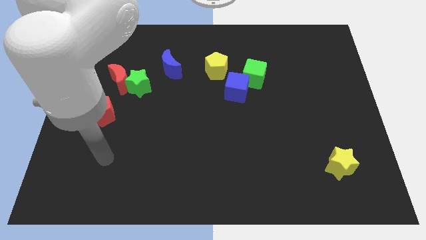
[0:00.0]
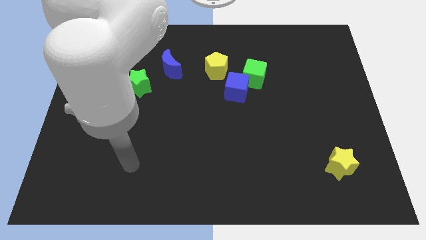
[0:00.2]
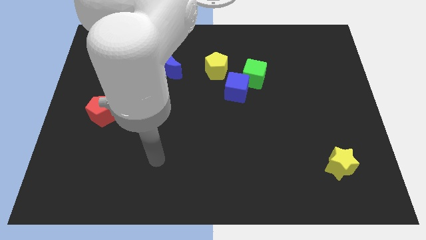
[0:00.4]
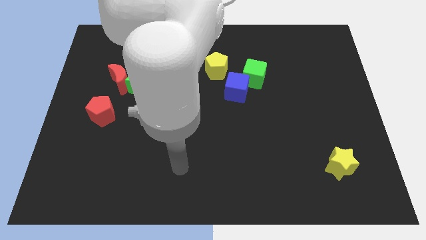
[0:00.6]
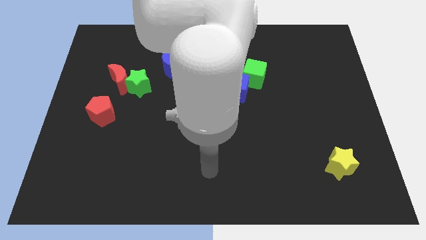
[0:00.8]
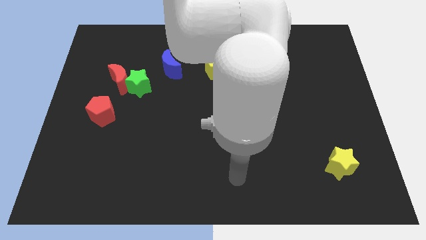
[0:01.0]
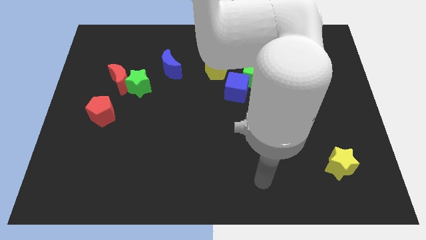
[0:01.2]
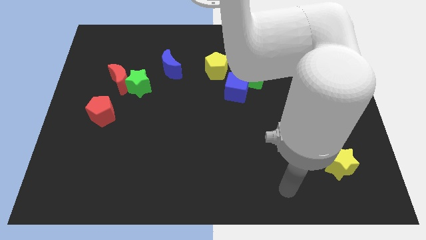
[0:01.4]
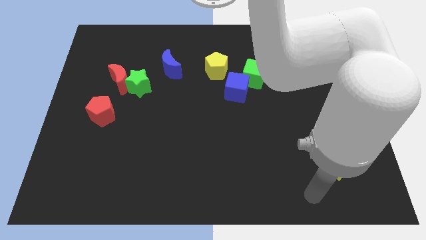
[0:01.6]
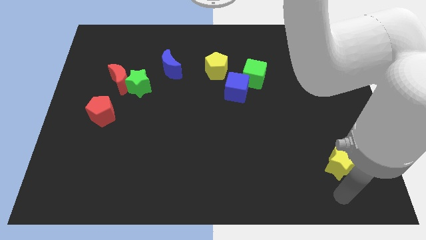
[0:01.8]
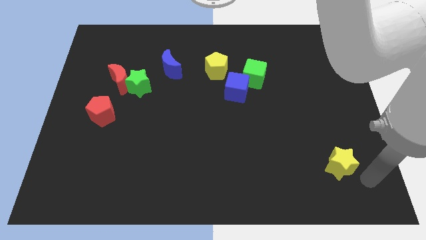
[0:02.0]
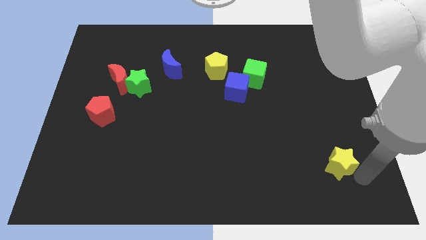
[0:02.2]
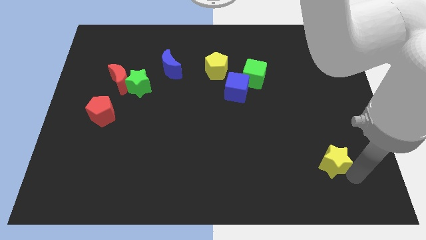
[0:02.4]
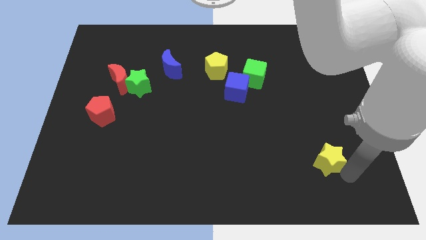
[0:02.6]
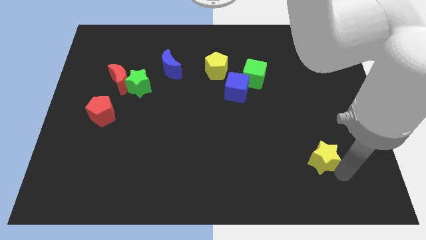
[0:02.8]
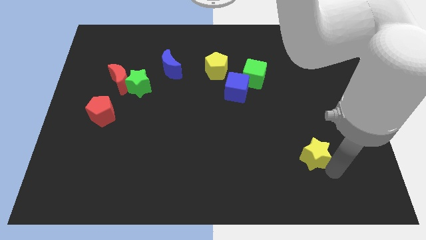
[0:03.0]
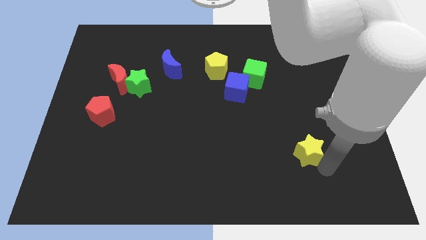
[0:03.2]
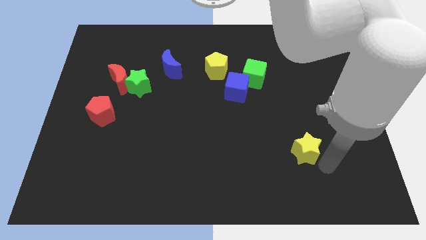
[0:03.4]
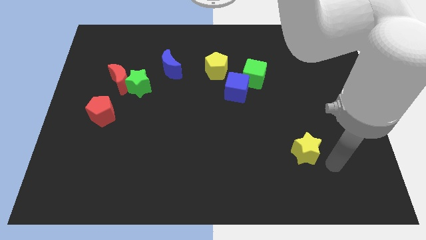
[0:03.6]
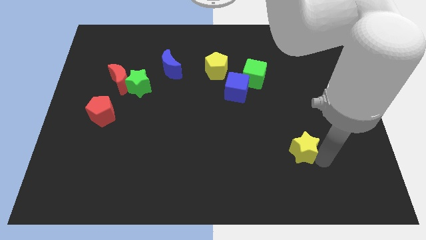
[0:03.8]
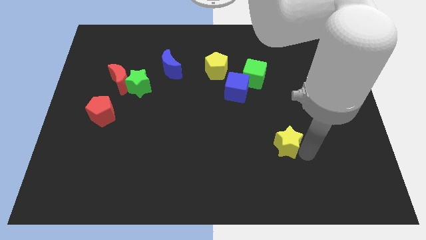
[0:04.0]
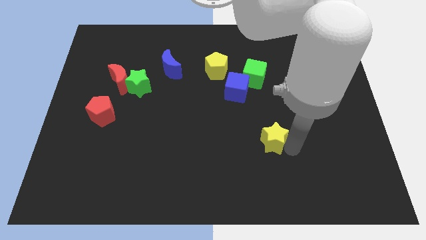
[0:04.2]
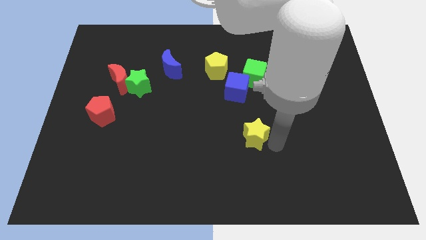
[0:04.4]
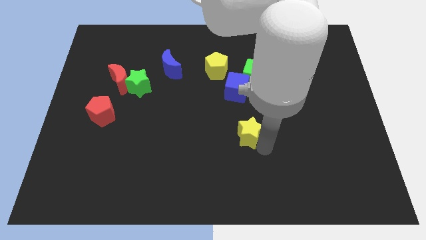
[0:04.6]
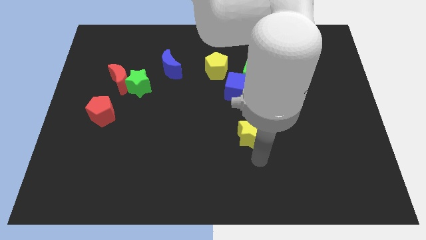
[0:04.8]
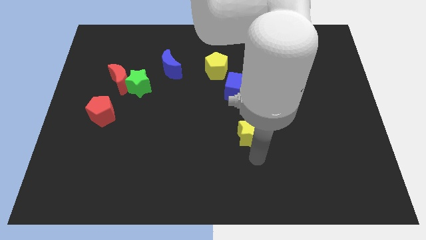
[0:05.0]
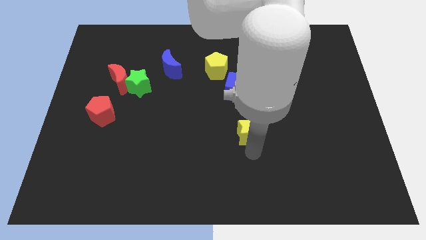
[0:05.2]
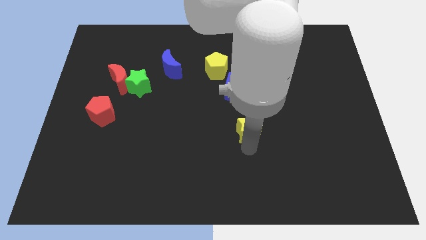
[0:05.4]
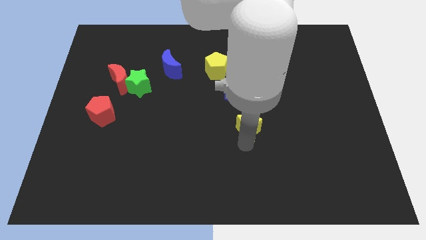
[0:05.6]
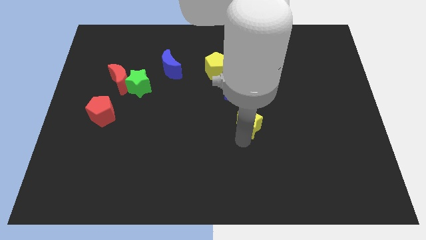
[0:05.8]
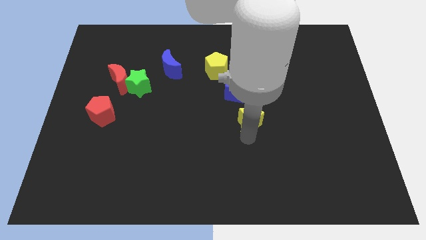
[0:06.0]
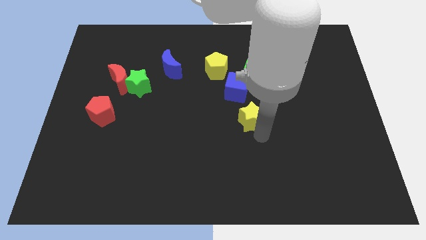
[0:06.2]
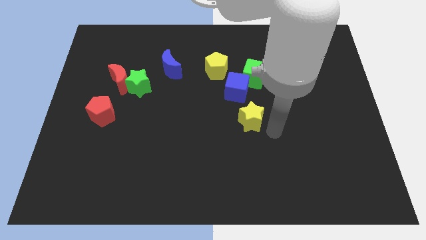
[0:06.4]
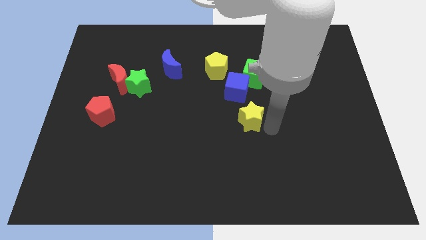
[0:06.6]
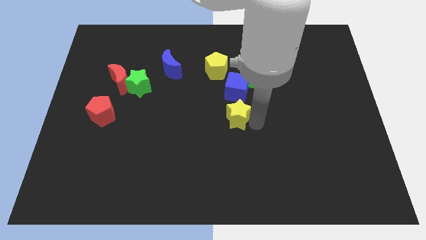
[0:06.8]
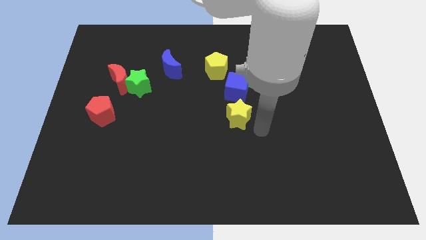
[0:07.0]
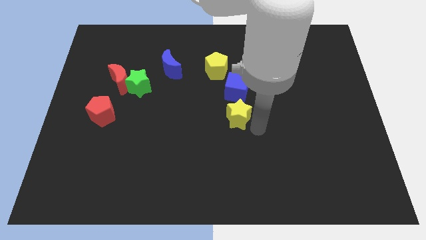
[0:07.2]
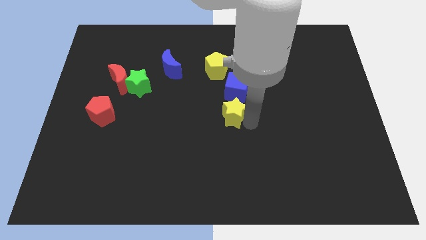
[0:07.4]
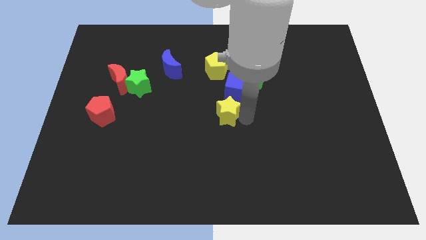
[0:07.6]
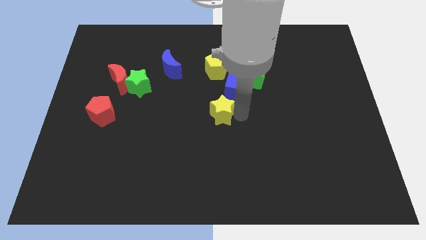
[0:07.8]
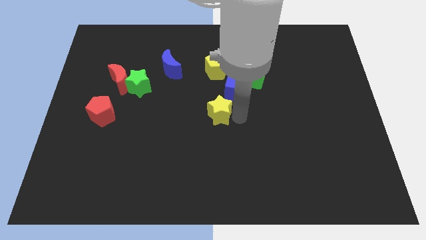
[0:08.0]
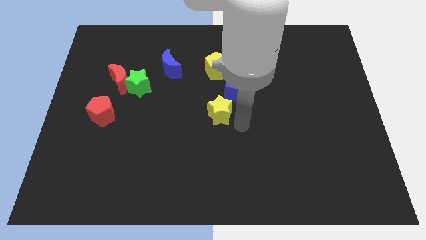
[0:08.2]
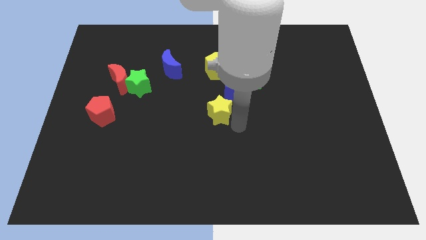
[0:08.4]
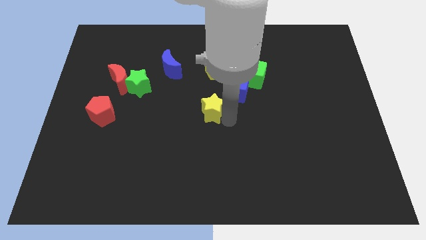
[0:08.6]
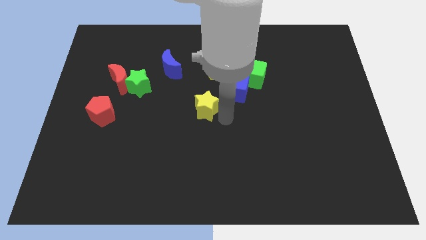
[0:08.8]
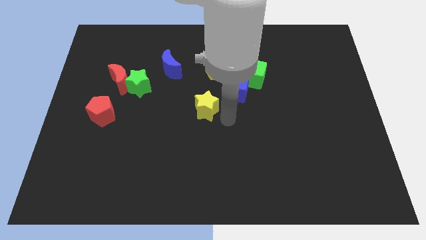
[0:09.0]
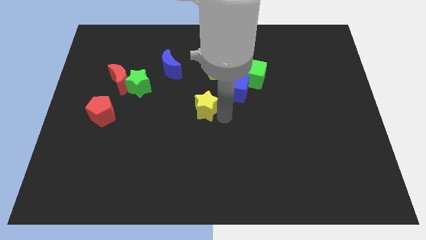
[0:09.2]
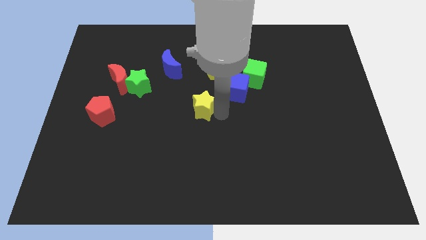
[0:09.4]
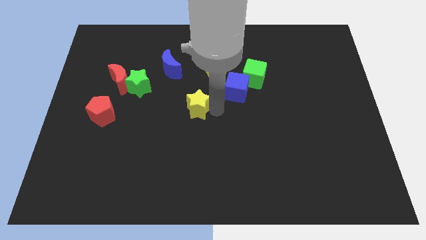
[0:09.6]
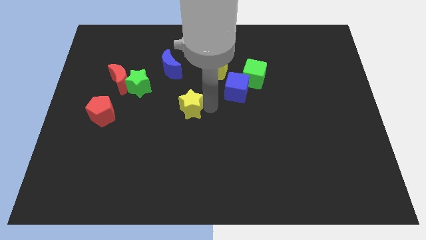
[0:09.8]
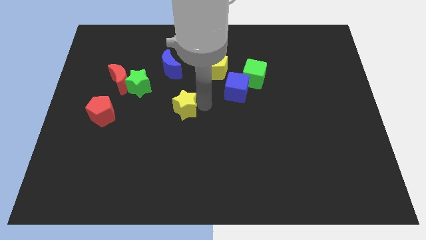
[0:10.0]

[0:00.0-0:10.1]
move the yellow star to the bottom side of the blue moon

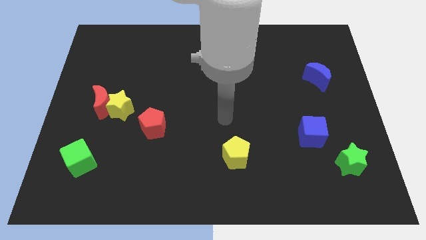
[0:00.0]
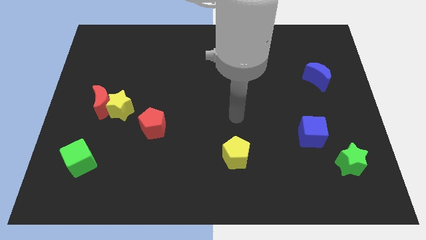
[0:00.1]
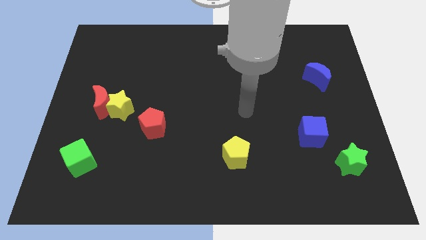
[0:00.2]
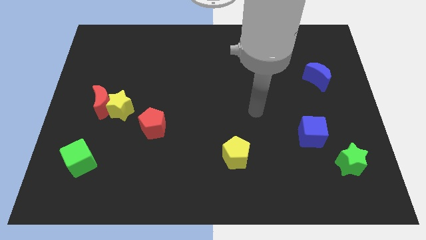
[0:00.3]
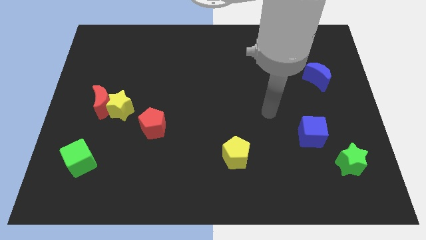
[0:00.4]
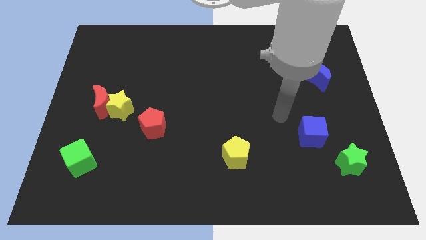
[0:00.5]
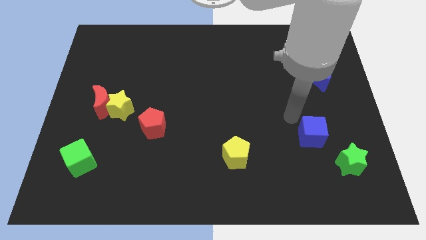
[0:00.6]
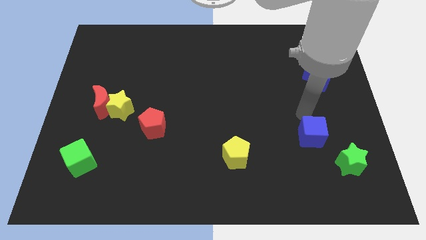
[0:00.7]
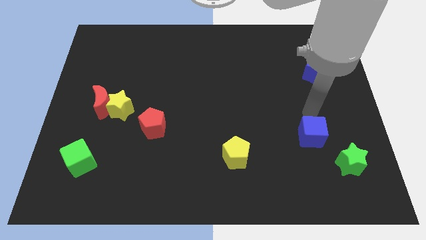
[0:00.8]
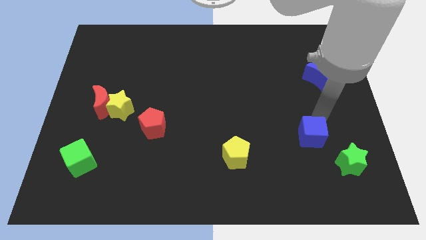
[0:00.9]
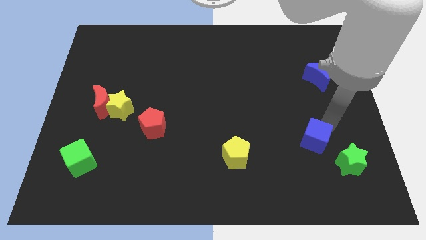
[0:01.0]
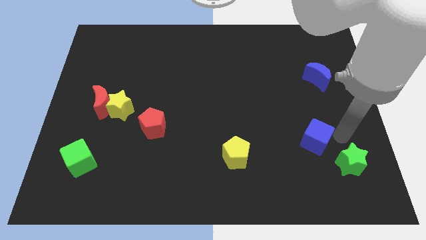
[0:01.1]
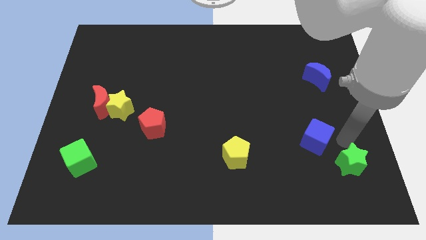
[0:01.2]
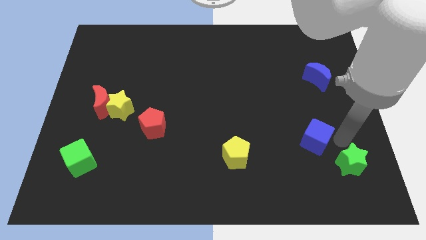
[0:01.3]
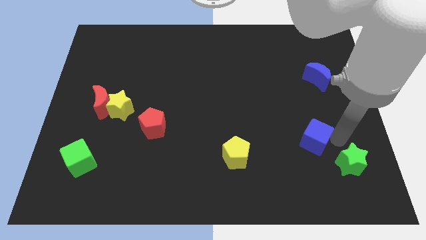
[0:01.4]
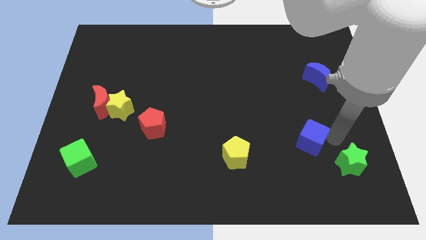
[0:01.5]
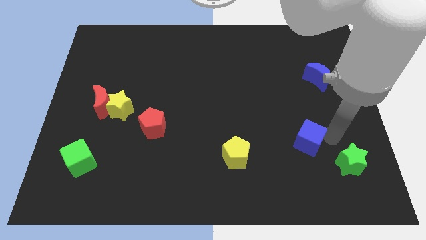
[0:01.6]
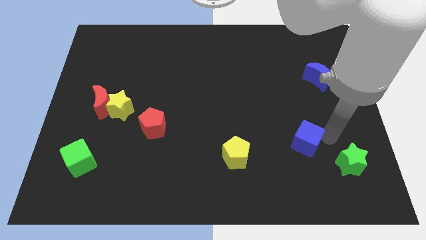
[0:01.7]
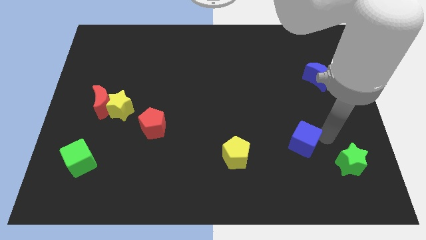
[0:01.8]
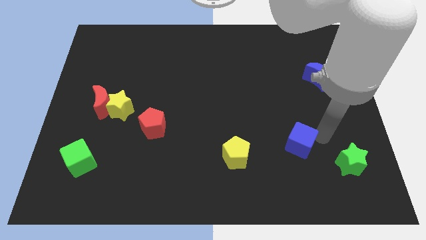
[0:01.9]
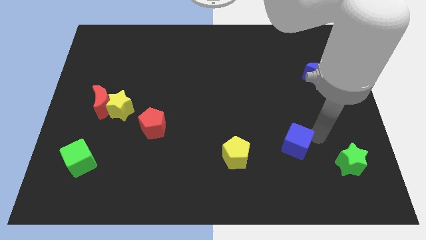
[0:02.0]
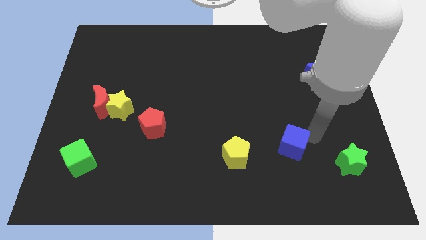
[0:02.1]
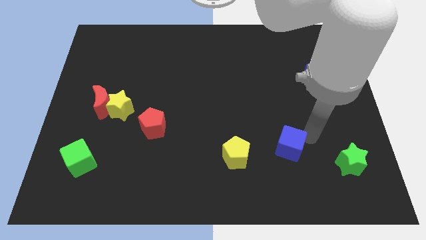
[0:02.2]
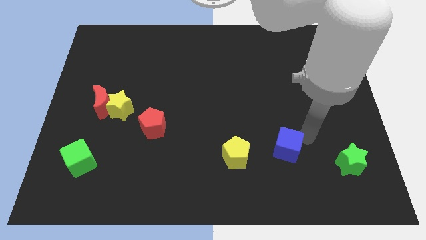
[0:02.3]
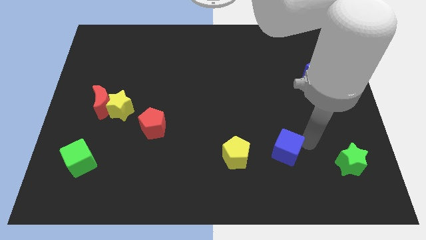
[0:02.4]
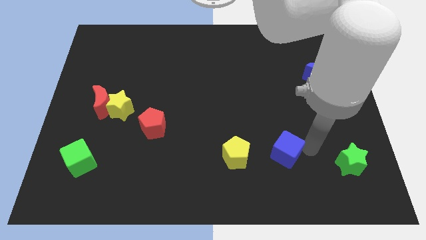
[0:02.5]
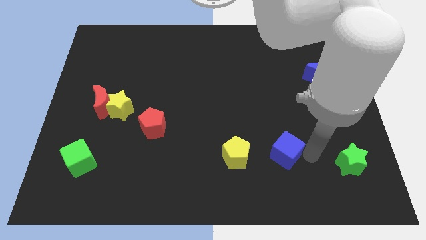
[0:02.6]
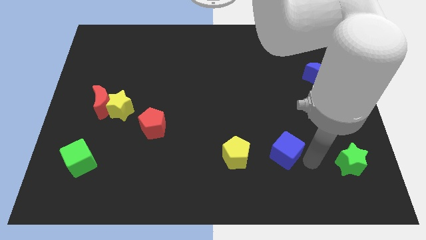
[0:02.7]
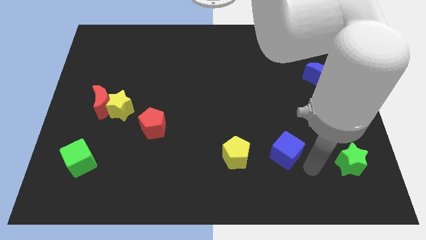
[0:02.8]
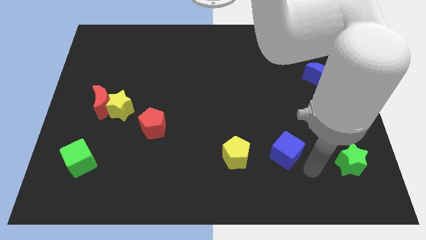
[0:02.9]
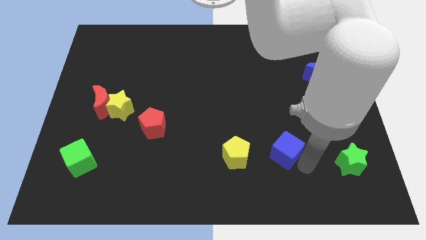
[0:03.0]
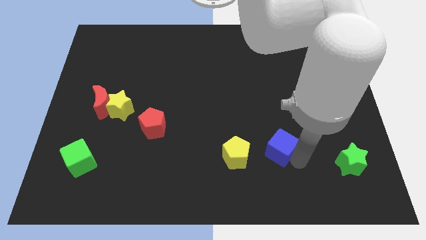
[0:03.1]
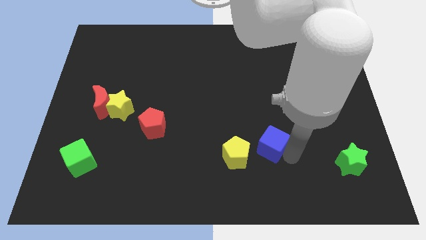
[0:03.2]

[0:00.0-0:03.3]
slide the blue cube to the top right side of the yellow pentagon
